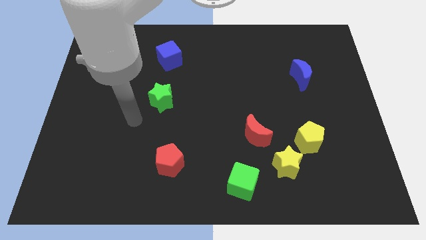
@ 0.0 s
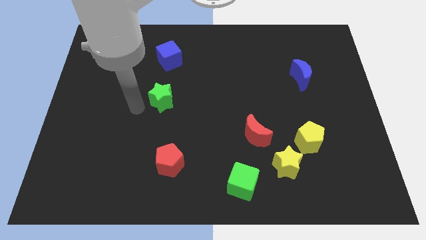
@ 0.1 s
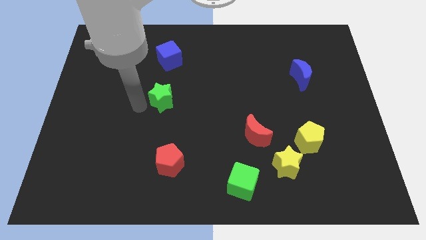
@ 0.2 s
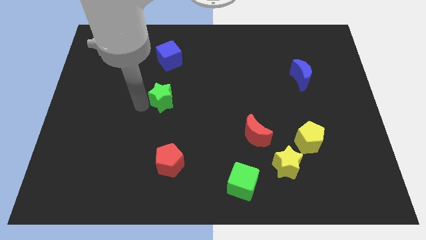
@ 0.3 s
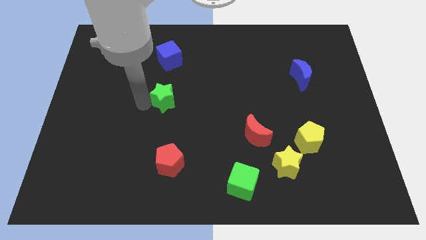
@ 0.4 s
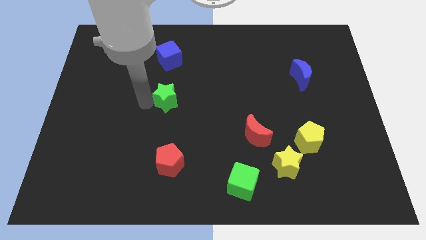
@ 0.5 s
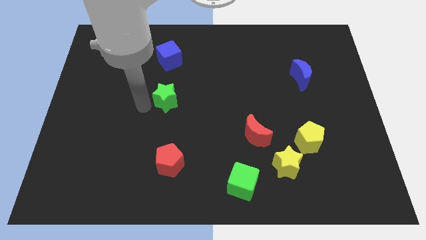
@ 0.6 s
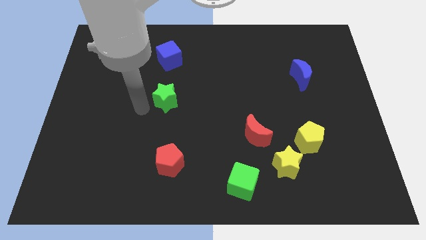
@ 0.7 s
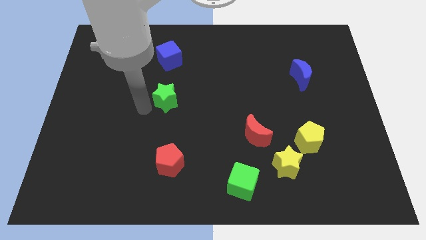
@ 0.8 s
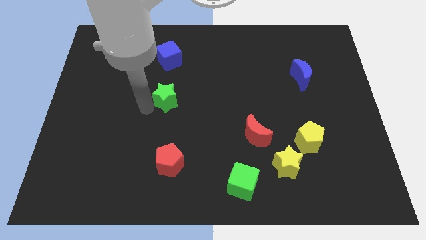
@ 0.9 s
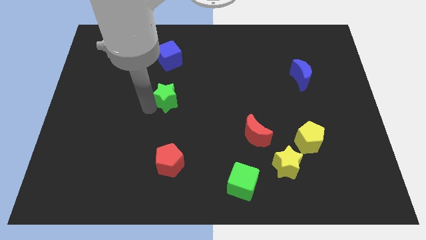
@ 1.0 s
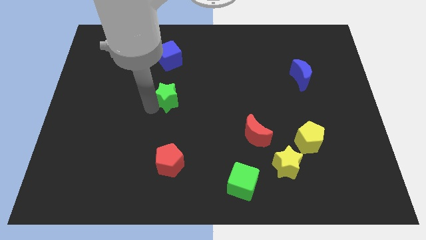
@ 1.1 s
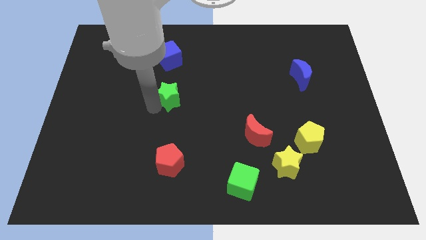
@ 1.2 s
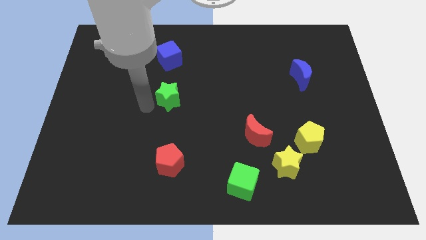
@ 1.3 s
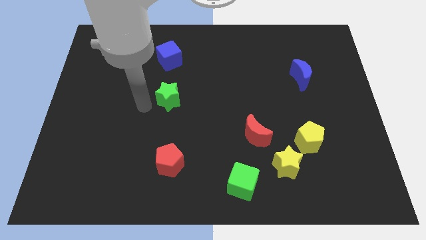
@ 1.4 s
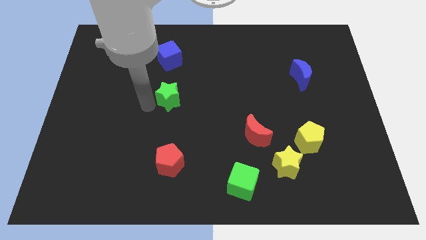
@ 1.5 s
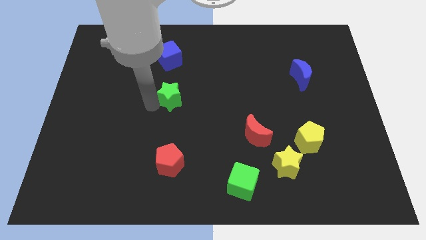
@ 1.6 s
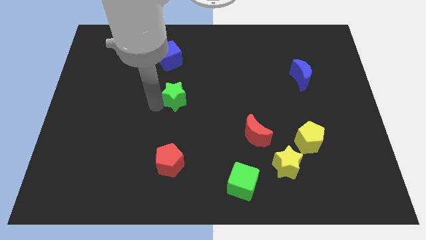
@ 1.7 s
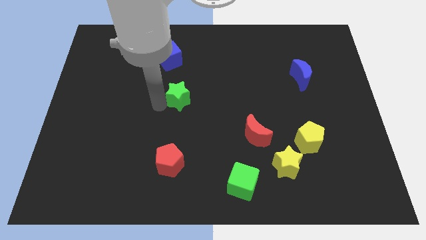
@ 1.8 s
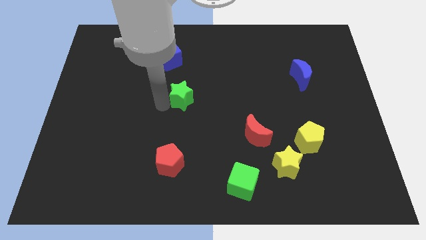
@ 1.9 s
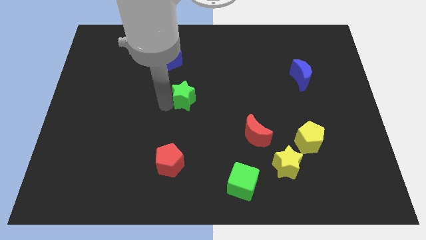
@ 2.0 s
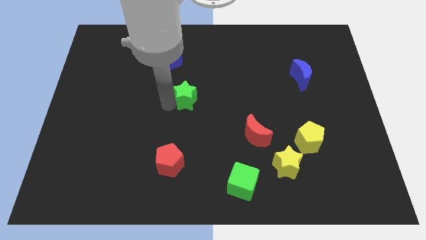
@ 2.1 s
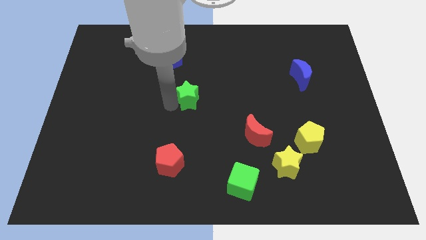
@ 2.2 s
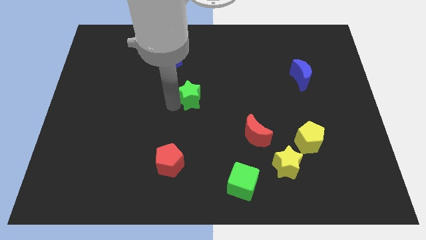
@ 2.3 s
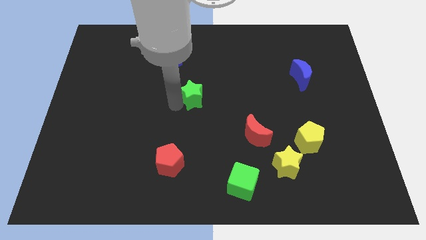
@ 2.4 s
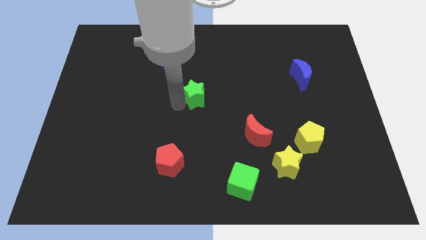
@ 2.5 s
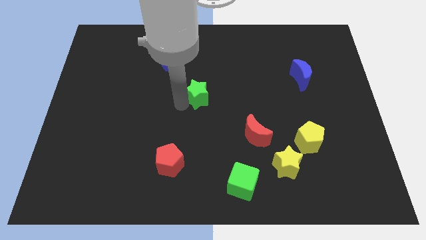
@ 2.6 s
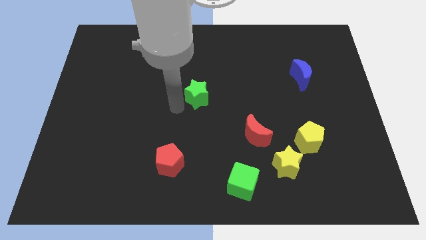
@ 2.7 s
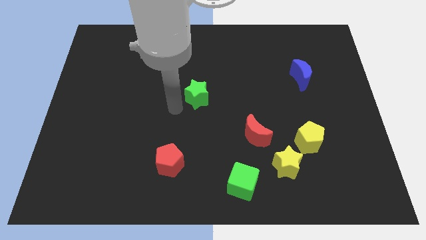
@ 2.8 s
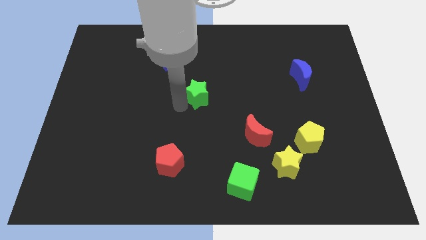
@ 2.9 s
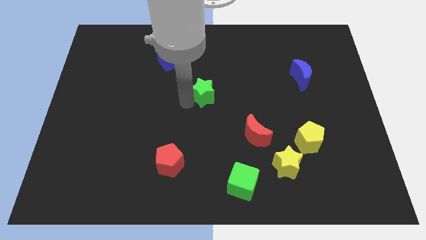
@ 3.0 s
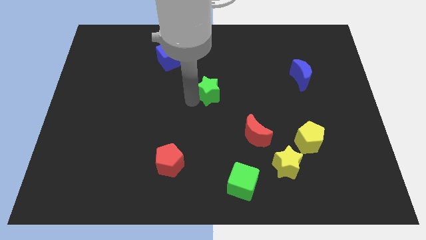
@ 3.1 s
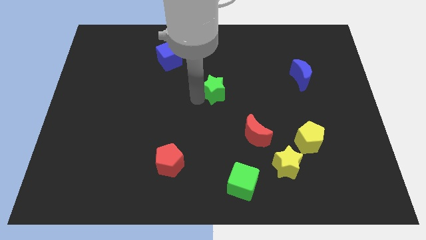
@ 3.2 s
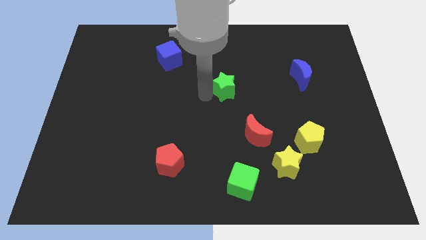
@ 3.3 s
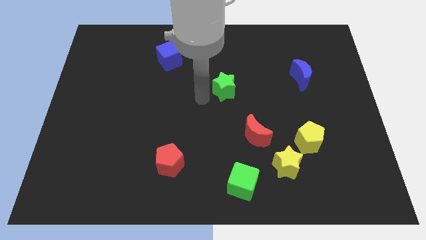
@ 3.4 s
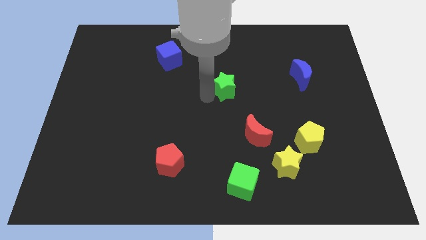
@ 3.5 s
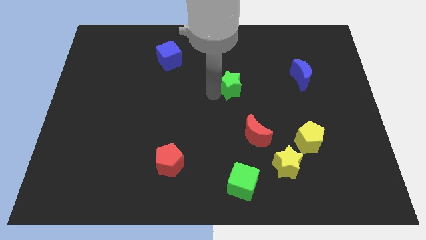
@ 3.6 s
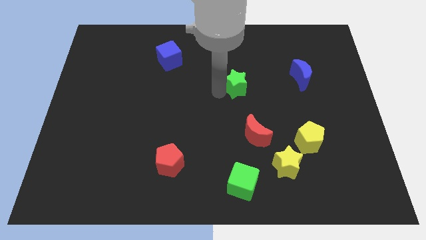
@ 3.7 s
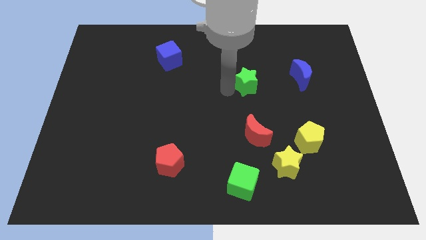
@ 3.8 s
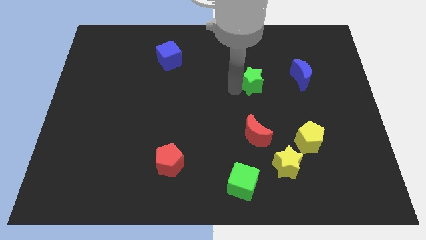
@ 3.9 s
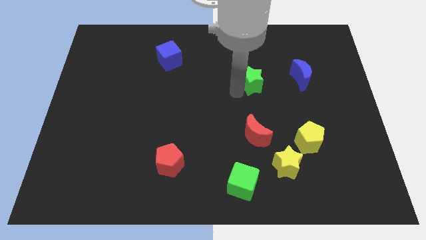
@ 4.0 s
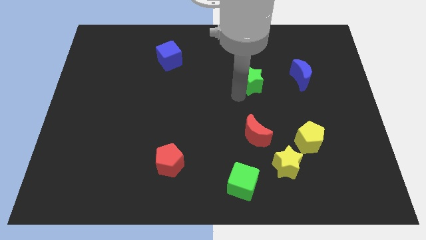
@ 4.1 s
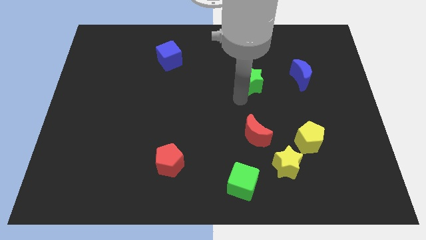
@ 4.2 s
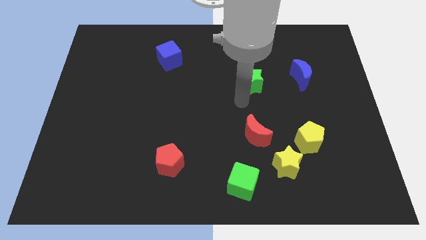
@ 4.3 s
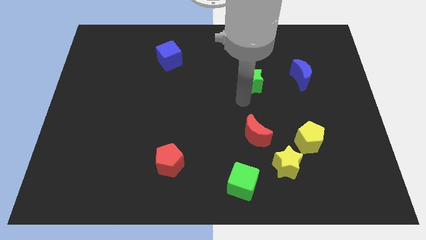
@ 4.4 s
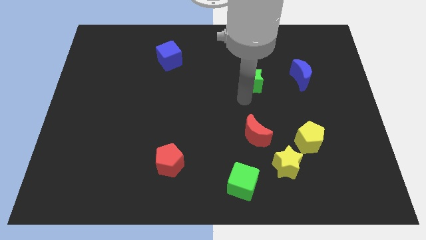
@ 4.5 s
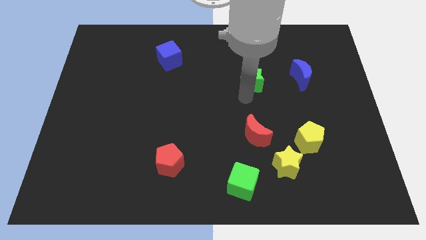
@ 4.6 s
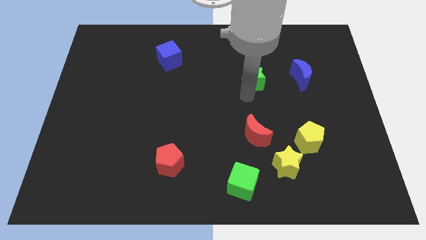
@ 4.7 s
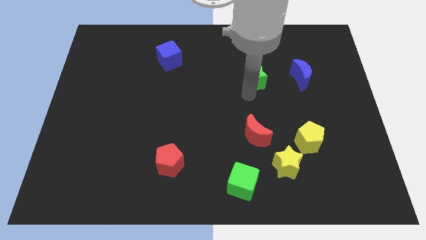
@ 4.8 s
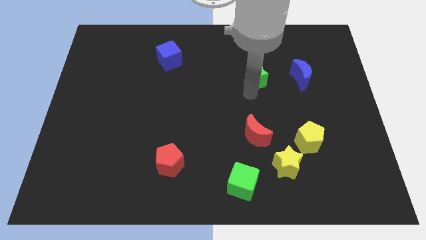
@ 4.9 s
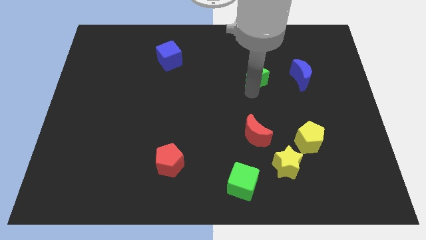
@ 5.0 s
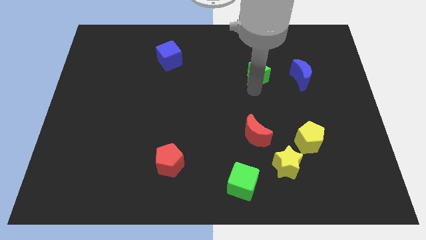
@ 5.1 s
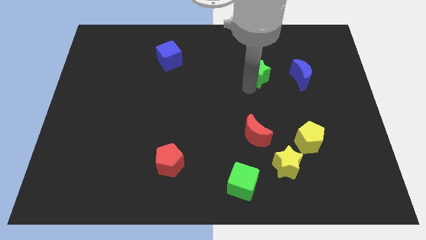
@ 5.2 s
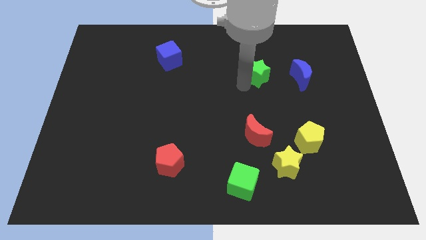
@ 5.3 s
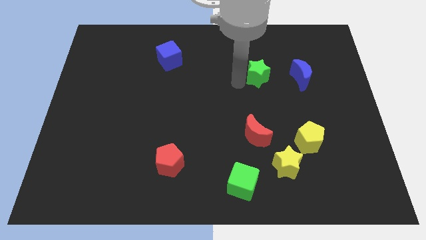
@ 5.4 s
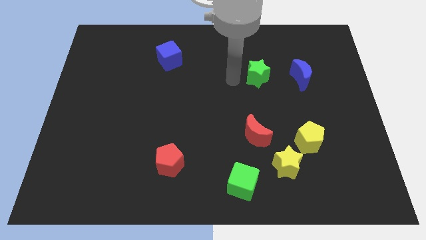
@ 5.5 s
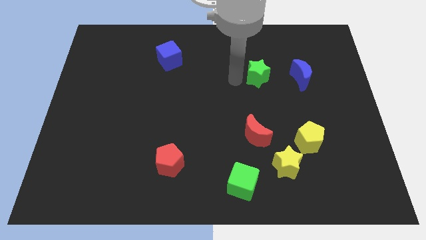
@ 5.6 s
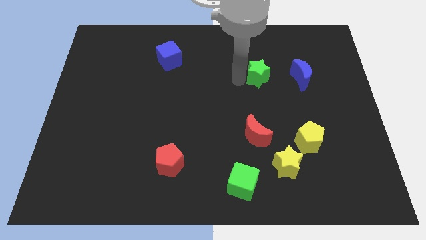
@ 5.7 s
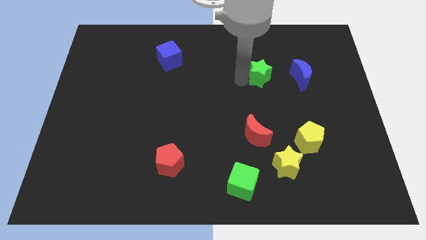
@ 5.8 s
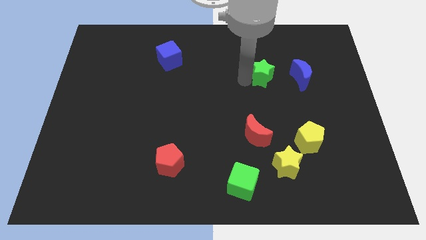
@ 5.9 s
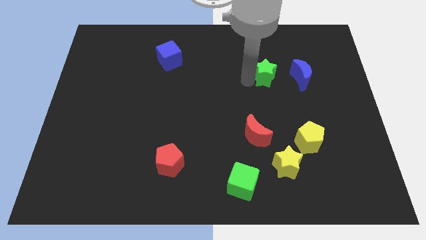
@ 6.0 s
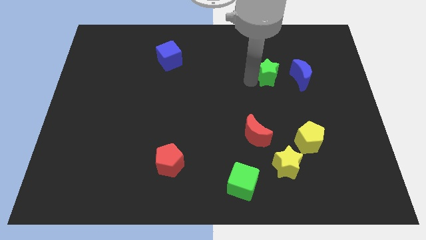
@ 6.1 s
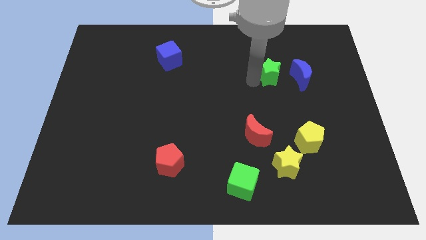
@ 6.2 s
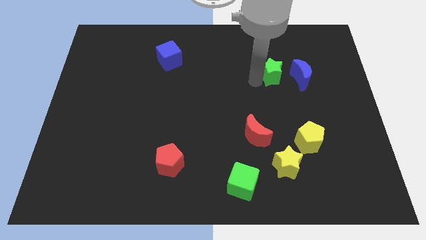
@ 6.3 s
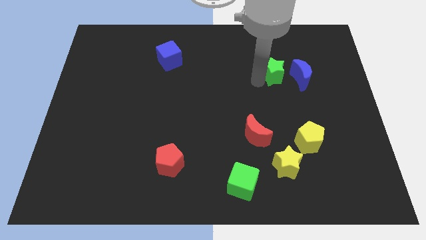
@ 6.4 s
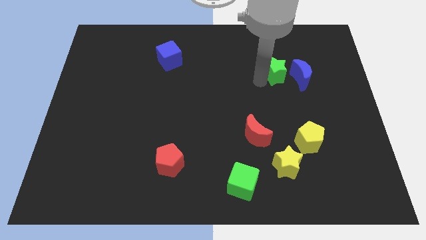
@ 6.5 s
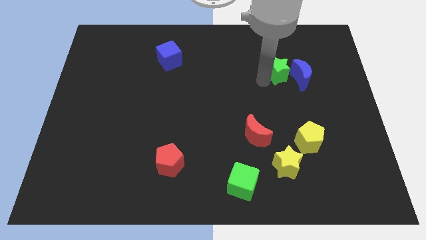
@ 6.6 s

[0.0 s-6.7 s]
push the green star close to the blue moon

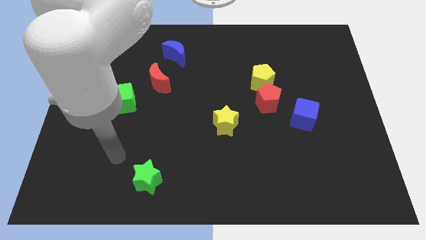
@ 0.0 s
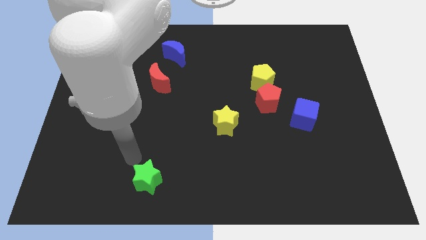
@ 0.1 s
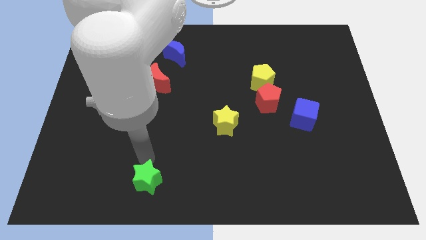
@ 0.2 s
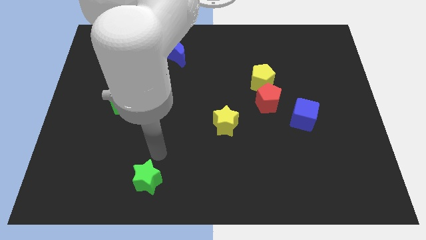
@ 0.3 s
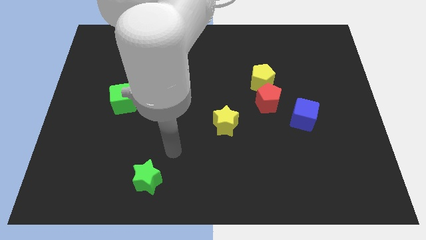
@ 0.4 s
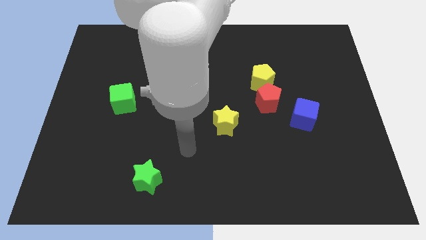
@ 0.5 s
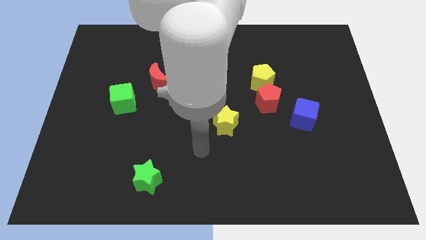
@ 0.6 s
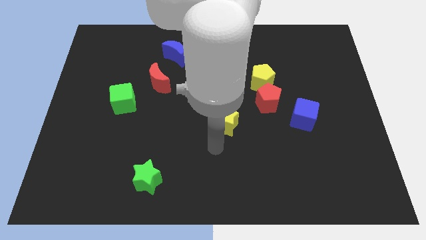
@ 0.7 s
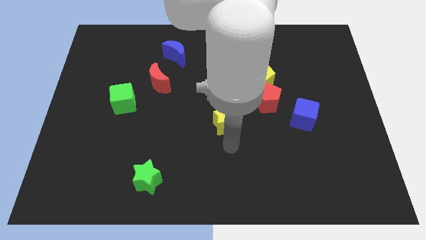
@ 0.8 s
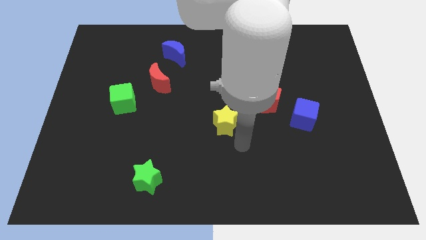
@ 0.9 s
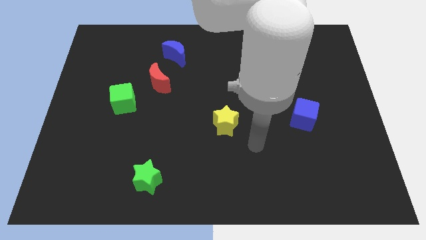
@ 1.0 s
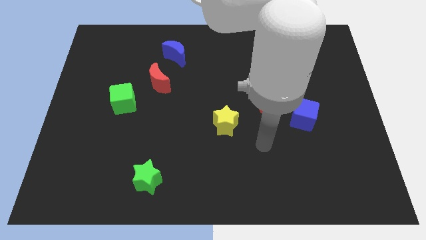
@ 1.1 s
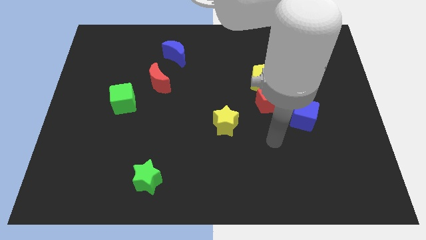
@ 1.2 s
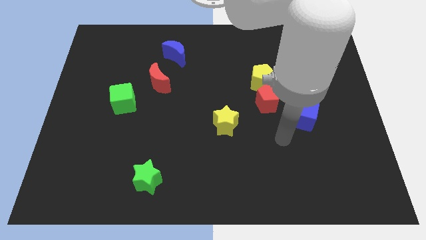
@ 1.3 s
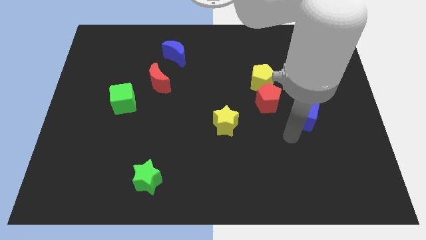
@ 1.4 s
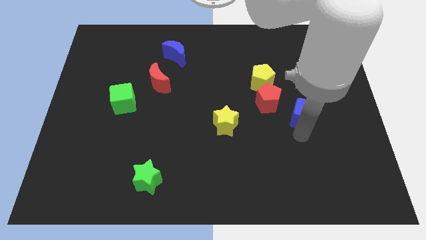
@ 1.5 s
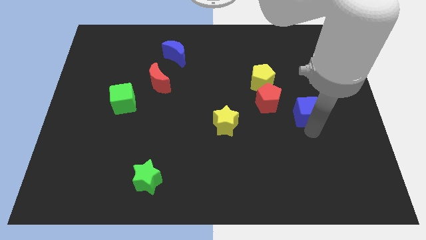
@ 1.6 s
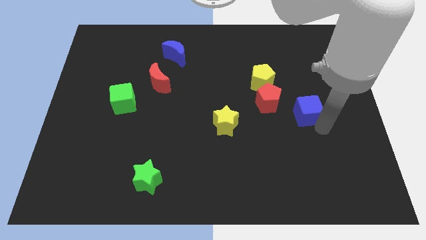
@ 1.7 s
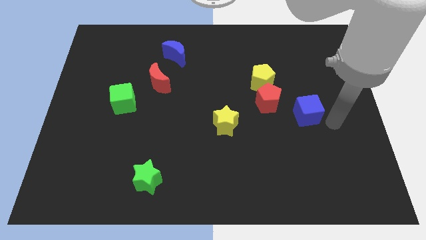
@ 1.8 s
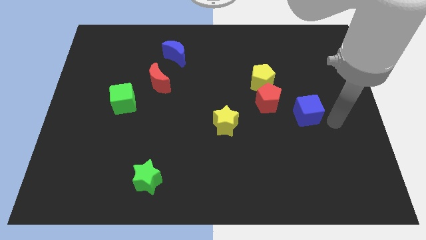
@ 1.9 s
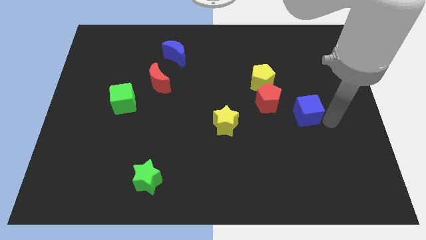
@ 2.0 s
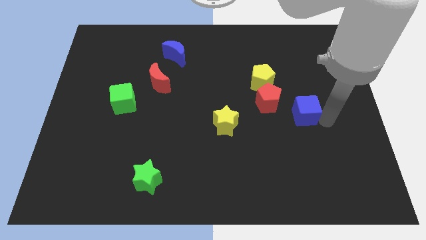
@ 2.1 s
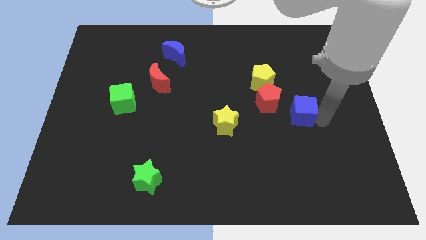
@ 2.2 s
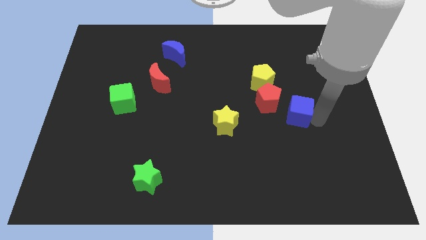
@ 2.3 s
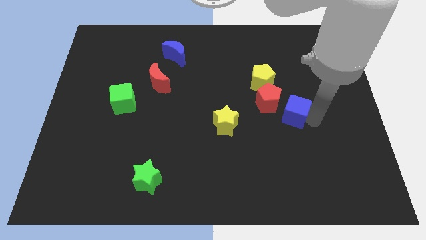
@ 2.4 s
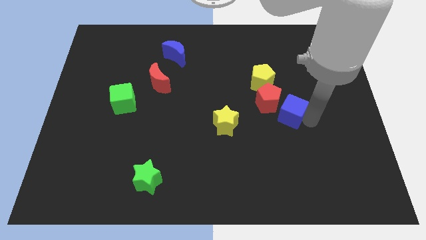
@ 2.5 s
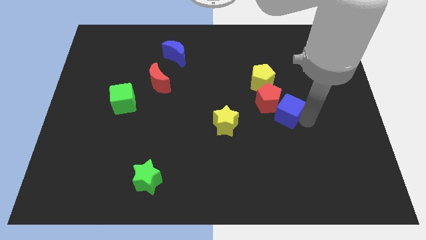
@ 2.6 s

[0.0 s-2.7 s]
slide the blue cube next to the red pentagon
